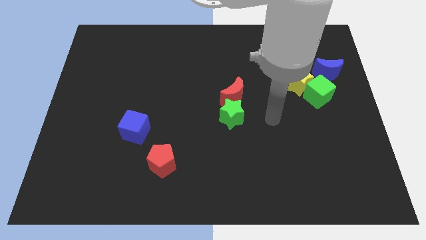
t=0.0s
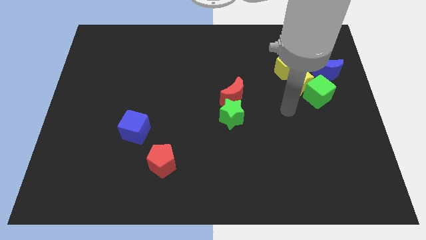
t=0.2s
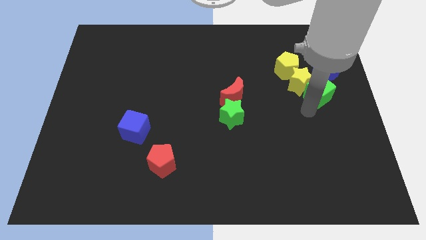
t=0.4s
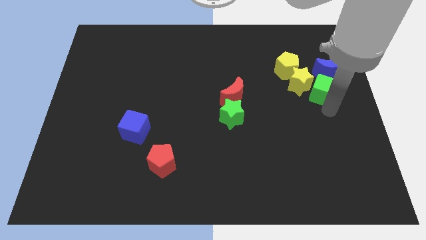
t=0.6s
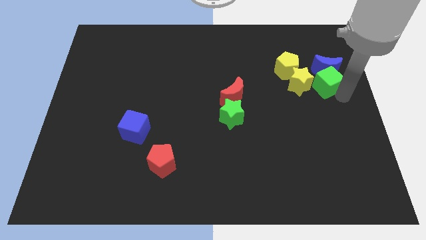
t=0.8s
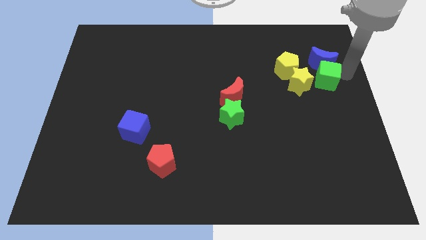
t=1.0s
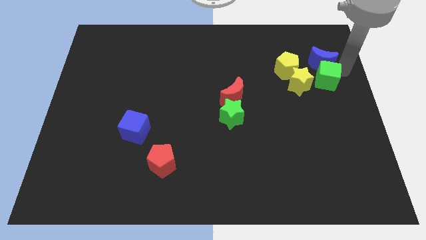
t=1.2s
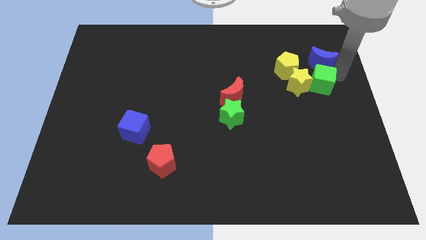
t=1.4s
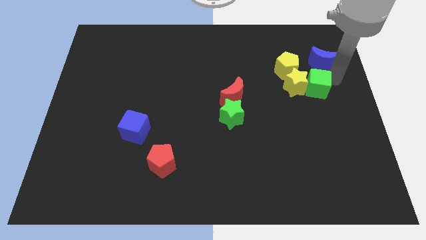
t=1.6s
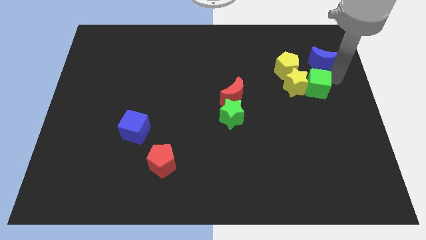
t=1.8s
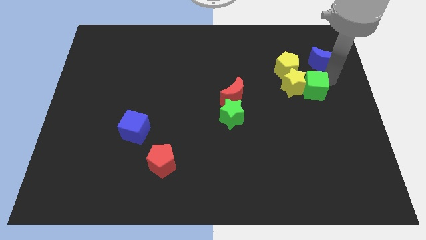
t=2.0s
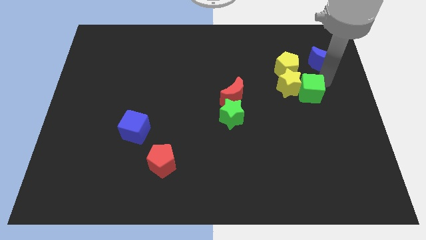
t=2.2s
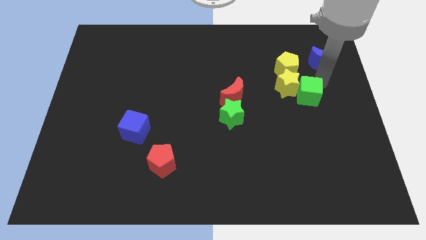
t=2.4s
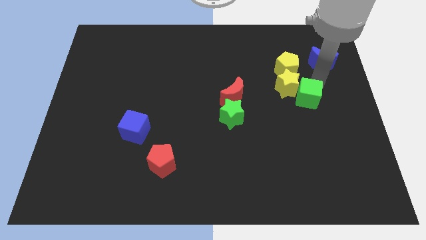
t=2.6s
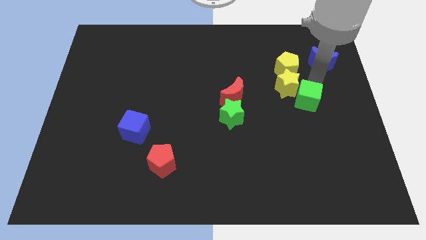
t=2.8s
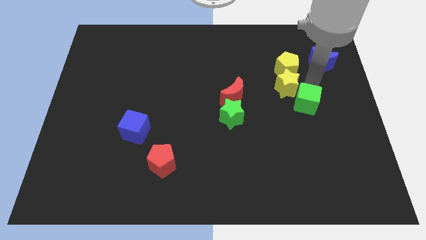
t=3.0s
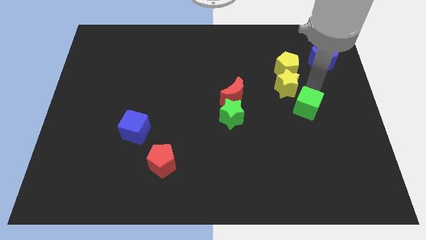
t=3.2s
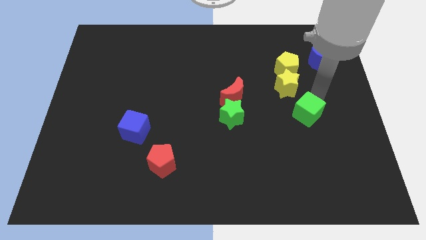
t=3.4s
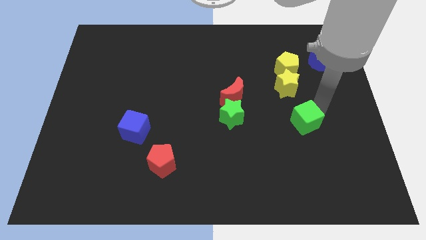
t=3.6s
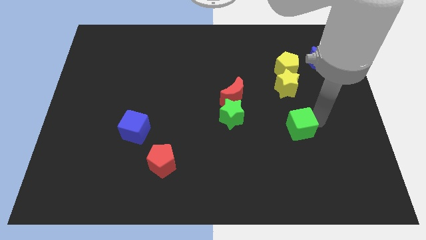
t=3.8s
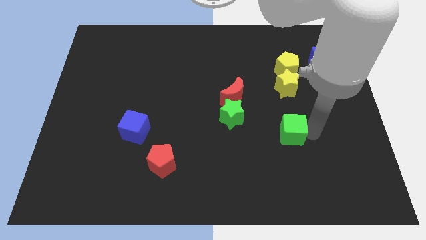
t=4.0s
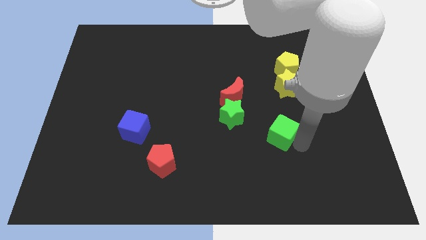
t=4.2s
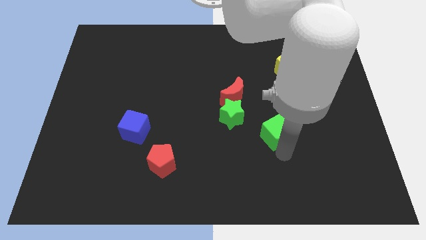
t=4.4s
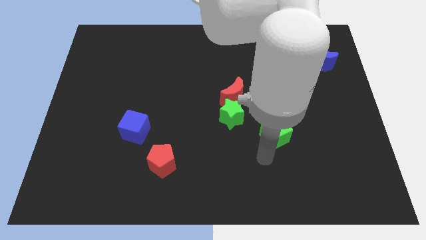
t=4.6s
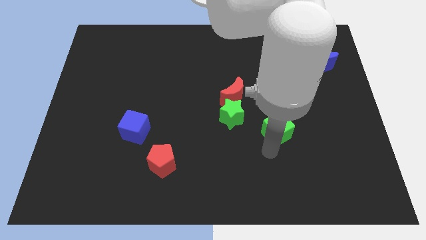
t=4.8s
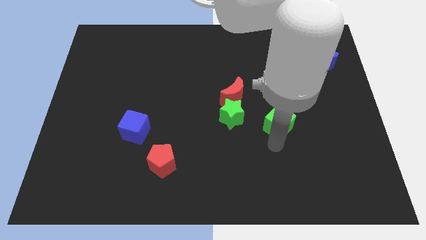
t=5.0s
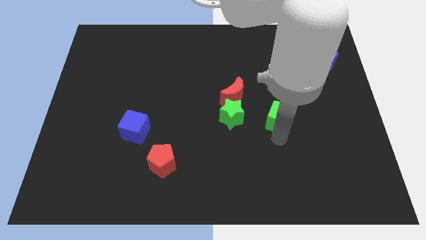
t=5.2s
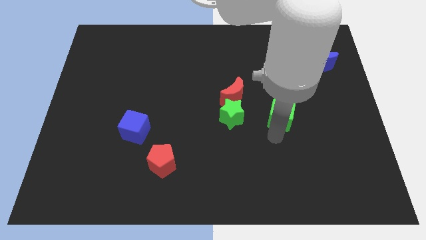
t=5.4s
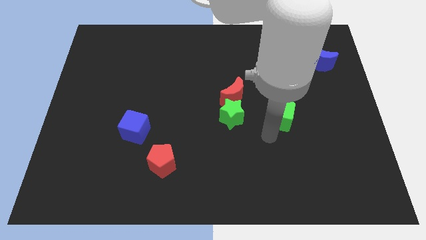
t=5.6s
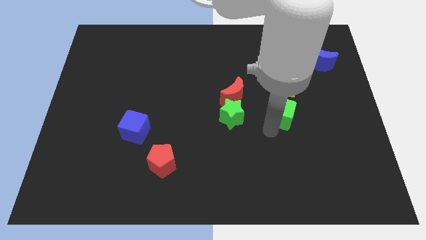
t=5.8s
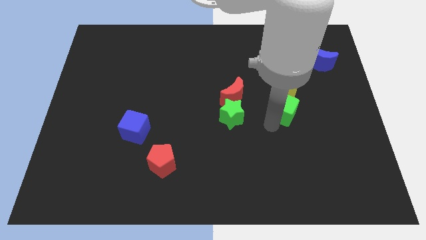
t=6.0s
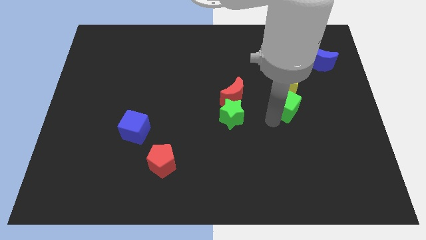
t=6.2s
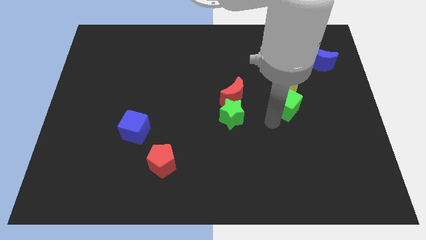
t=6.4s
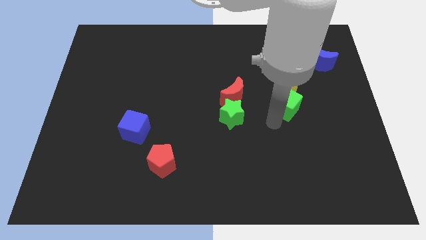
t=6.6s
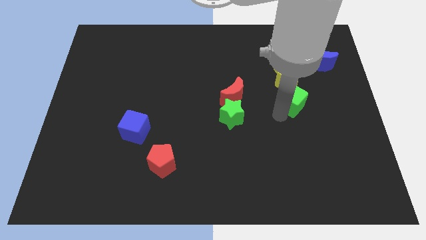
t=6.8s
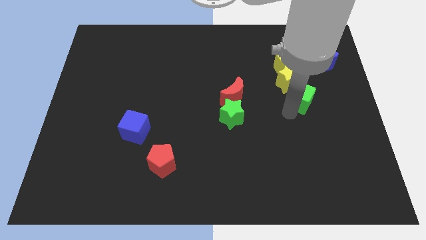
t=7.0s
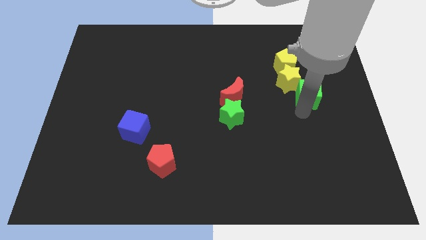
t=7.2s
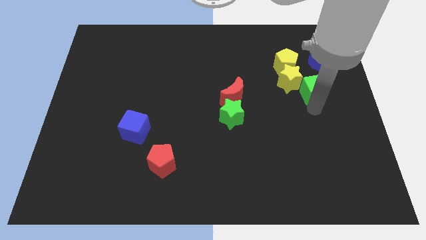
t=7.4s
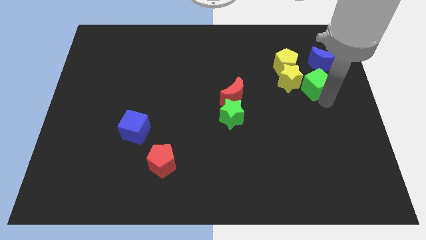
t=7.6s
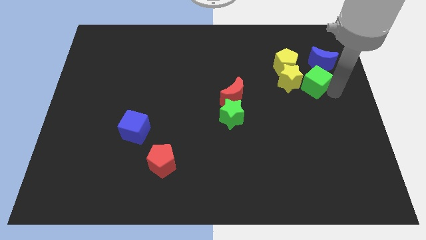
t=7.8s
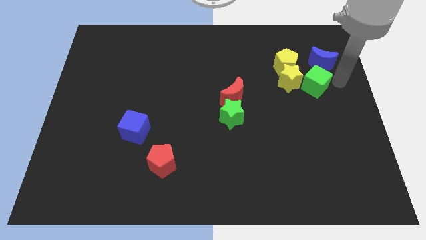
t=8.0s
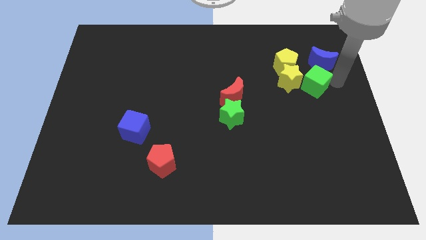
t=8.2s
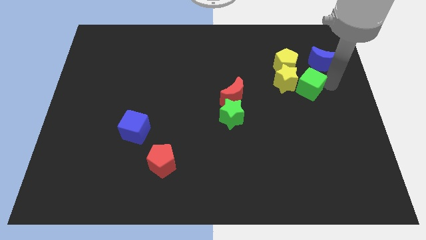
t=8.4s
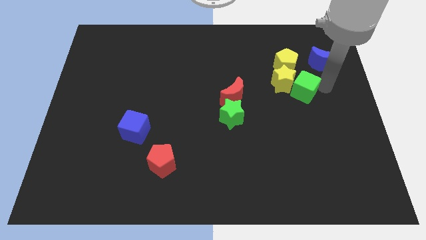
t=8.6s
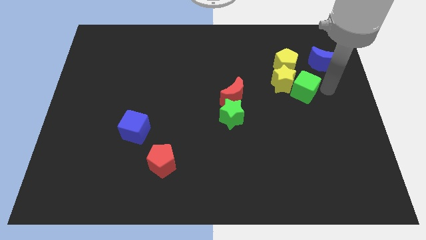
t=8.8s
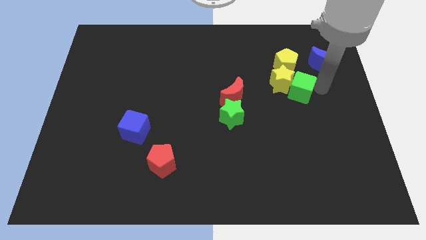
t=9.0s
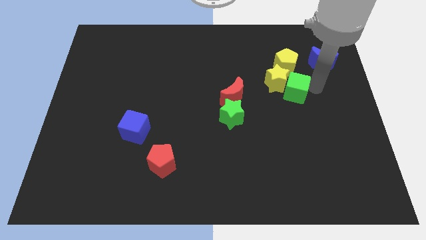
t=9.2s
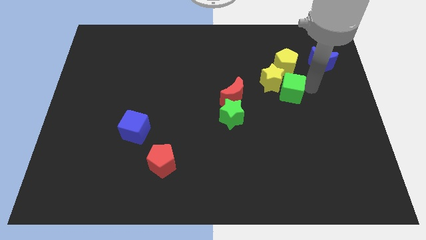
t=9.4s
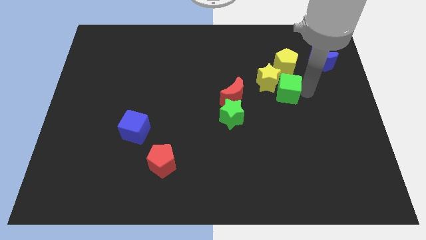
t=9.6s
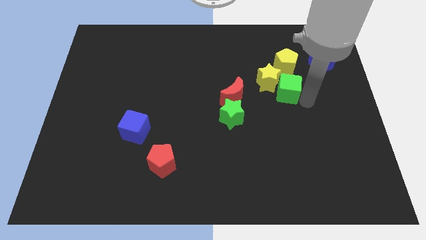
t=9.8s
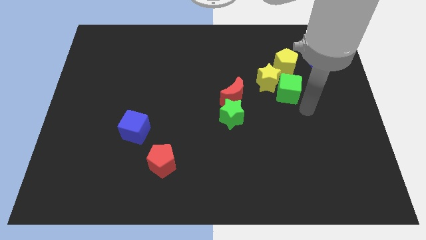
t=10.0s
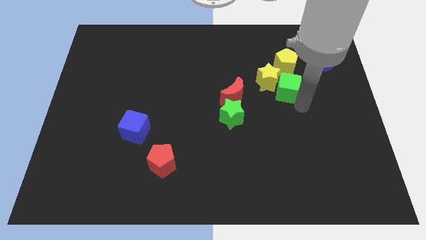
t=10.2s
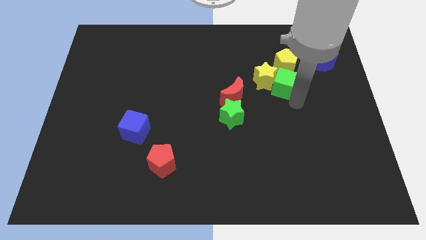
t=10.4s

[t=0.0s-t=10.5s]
slightly slide the green cube up and left diagonally

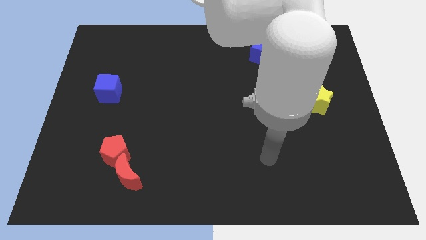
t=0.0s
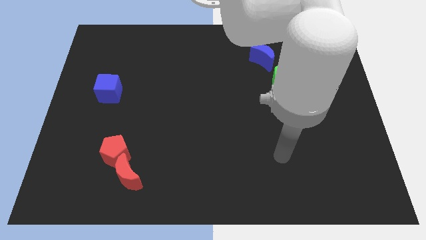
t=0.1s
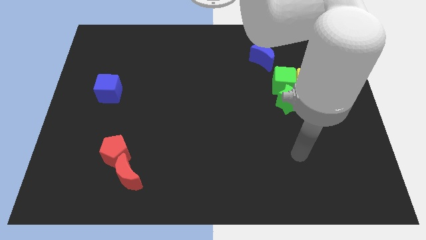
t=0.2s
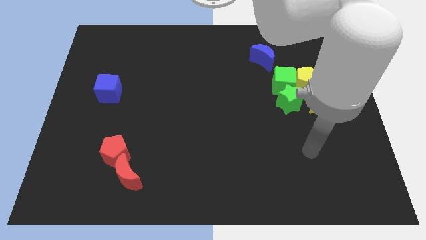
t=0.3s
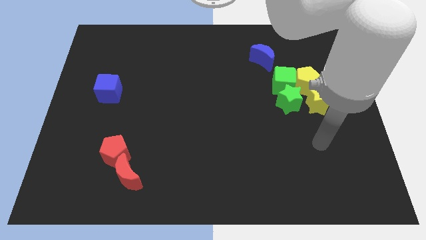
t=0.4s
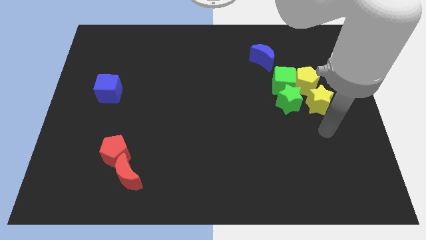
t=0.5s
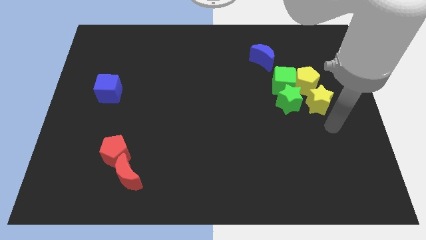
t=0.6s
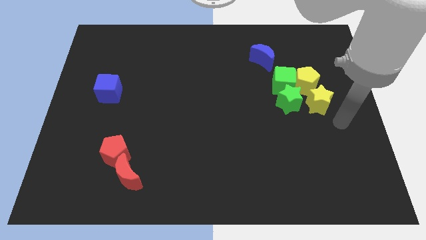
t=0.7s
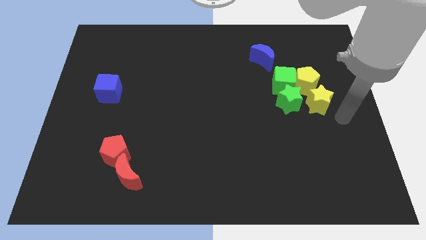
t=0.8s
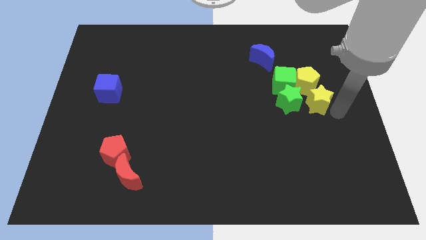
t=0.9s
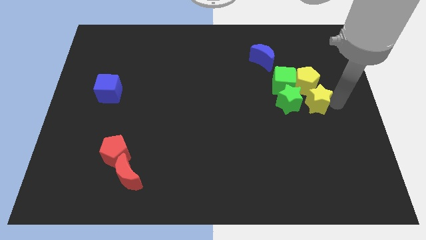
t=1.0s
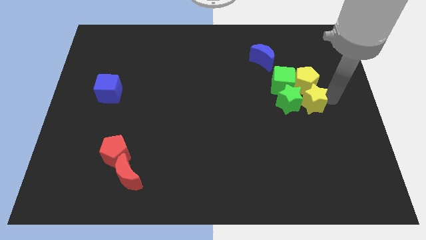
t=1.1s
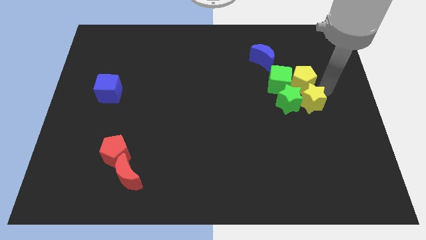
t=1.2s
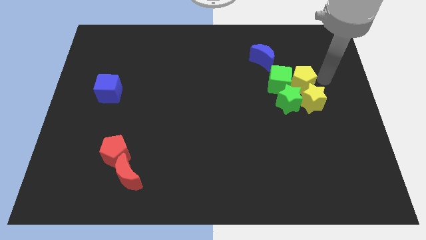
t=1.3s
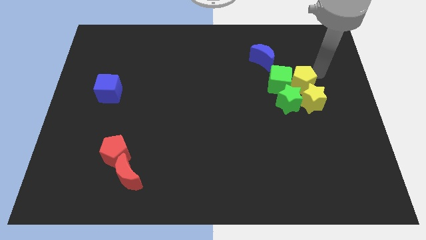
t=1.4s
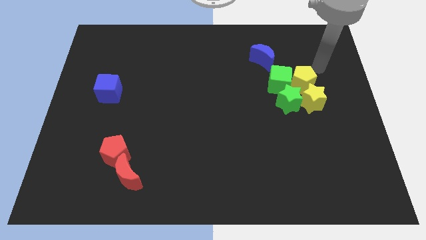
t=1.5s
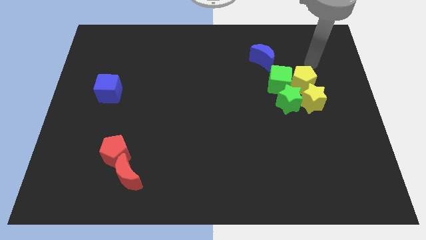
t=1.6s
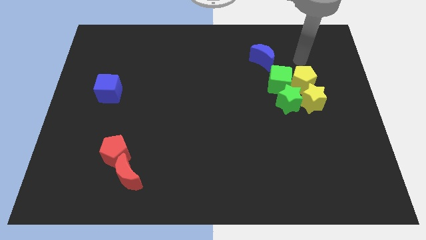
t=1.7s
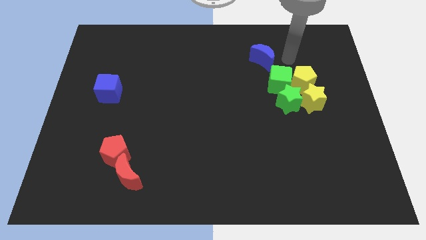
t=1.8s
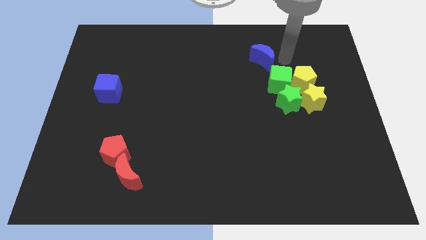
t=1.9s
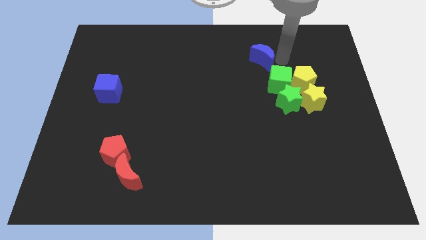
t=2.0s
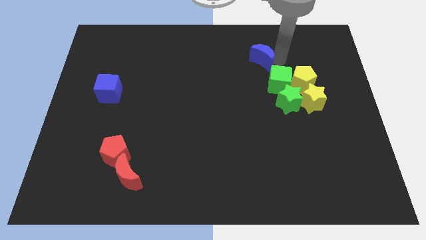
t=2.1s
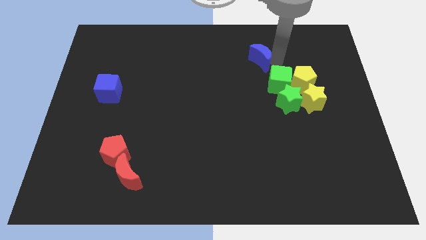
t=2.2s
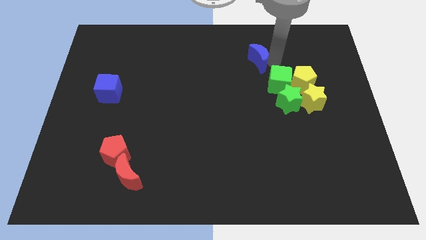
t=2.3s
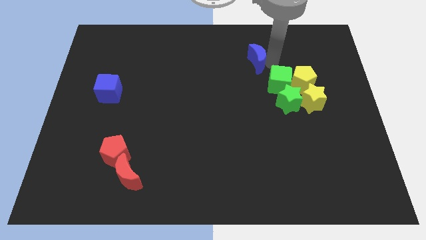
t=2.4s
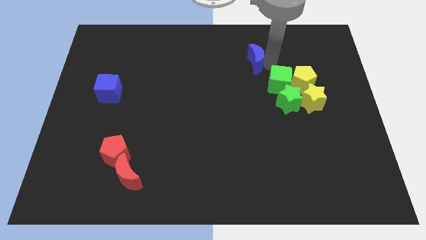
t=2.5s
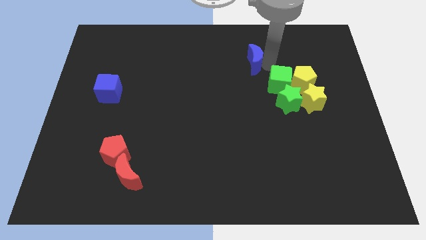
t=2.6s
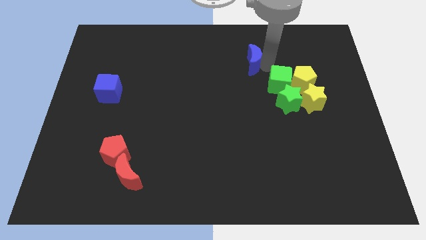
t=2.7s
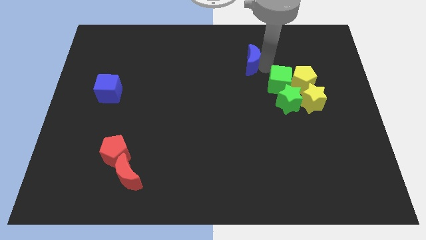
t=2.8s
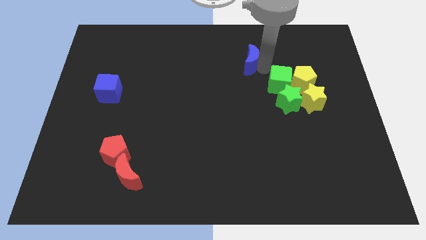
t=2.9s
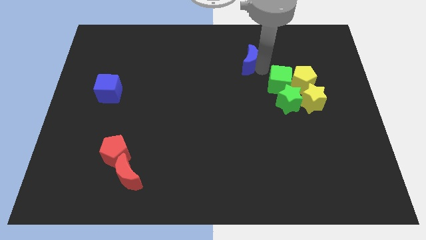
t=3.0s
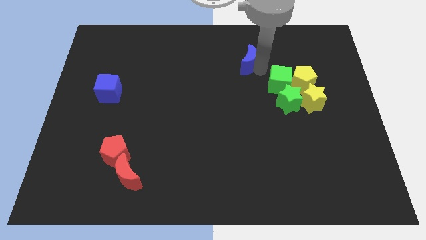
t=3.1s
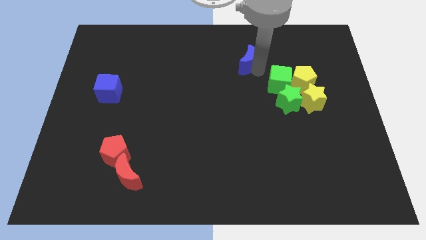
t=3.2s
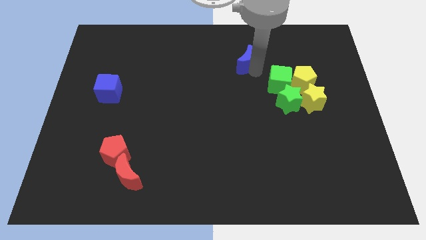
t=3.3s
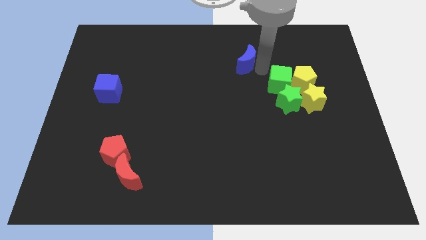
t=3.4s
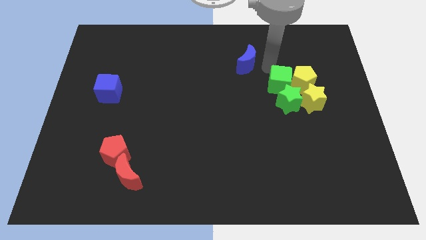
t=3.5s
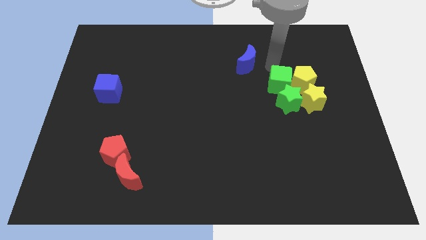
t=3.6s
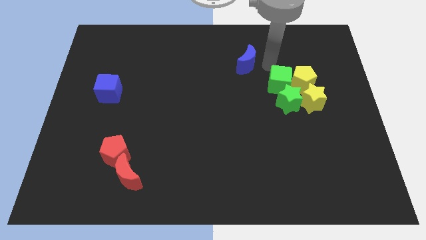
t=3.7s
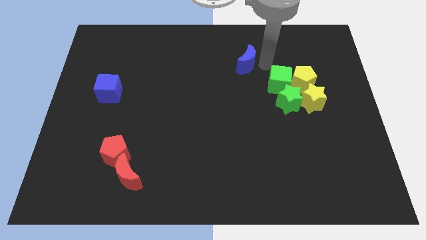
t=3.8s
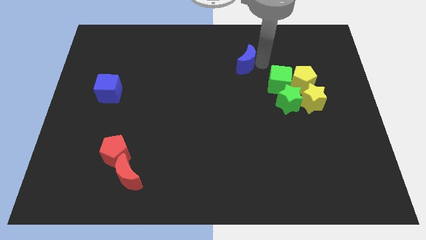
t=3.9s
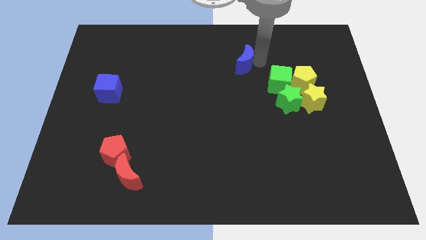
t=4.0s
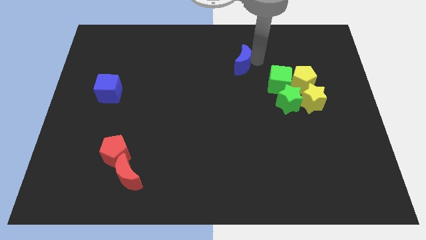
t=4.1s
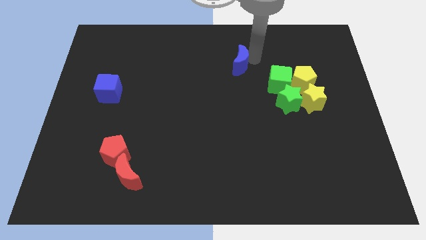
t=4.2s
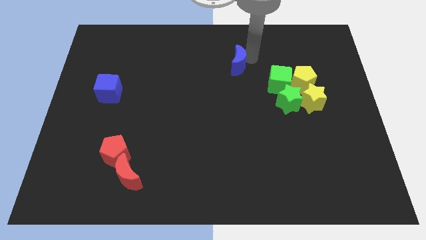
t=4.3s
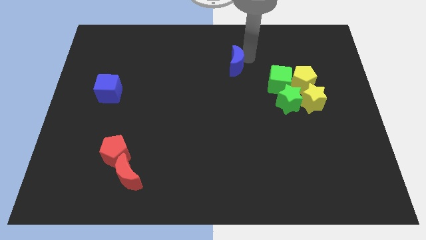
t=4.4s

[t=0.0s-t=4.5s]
move the blue moon left somewhat
